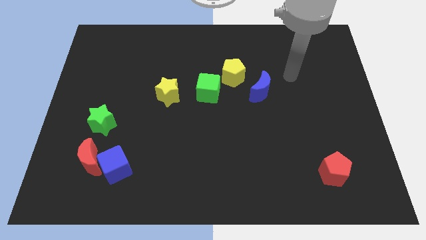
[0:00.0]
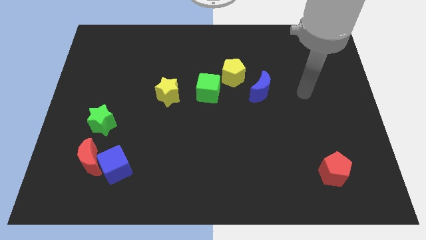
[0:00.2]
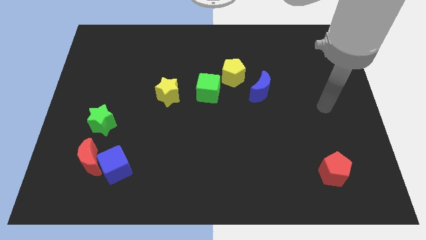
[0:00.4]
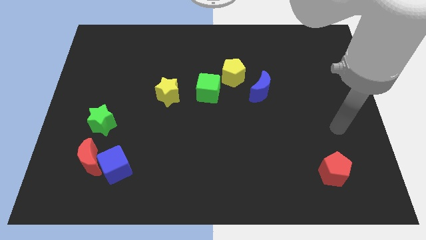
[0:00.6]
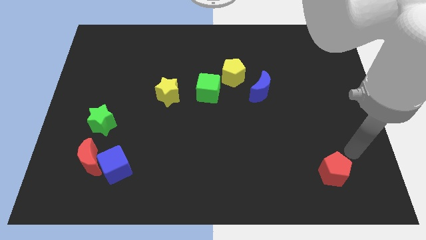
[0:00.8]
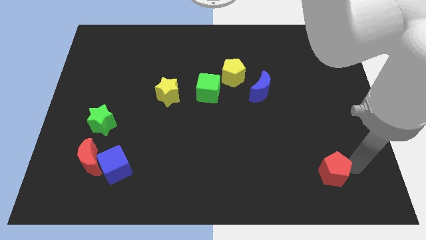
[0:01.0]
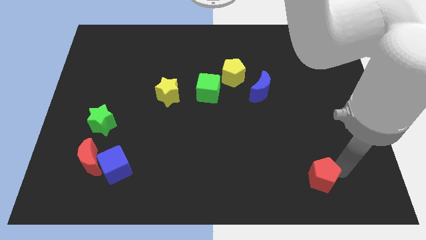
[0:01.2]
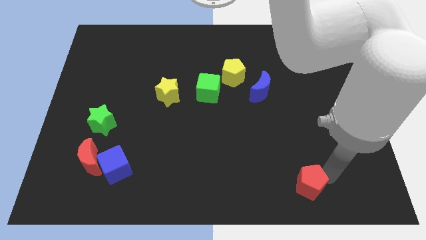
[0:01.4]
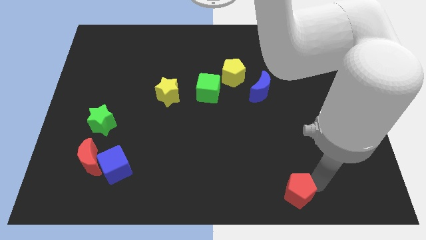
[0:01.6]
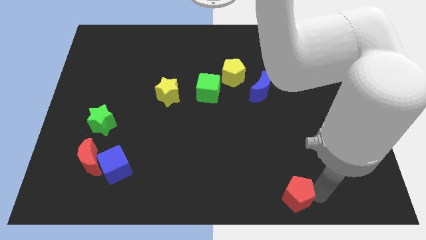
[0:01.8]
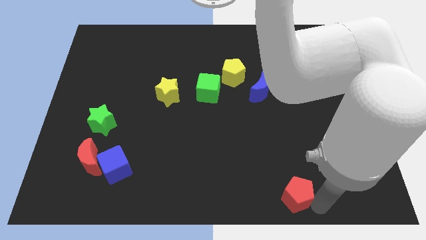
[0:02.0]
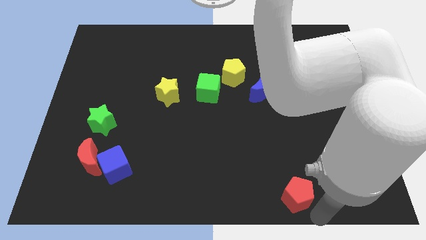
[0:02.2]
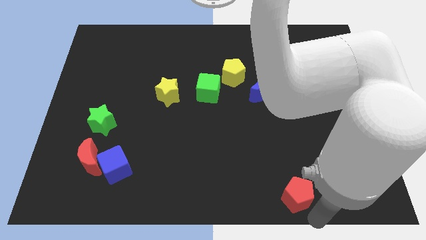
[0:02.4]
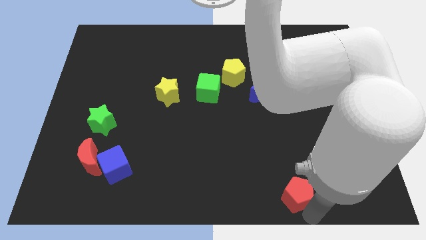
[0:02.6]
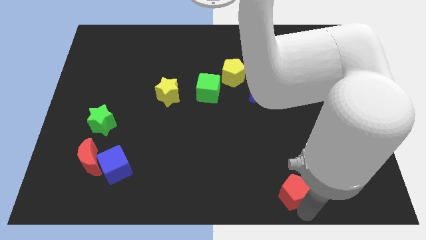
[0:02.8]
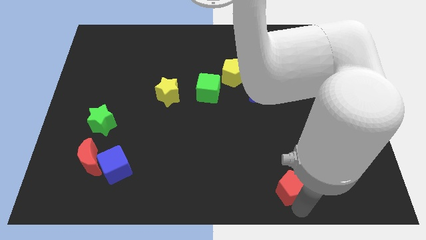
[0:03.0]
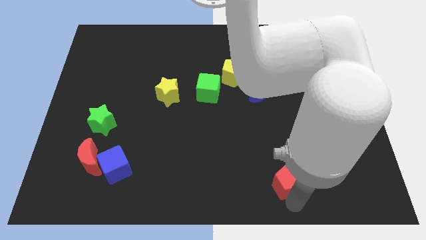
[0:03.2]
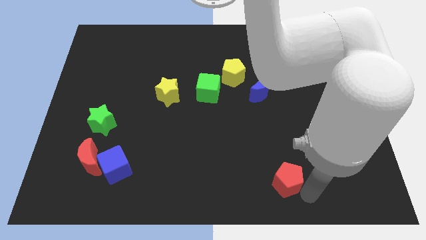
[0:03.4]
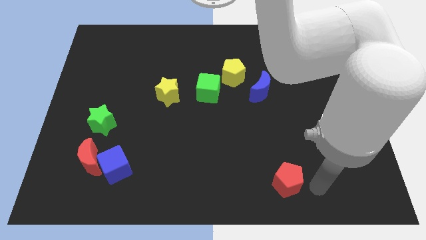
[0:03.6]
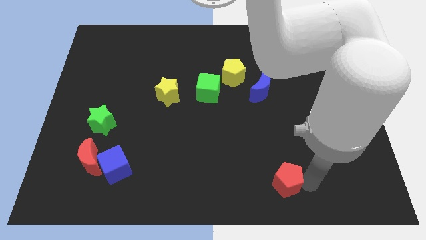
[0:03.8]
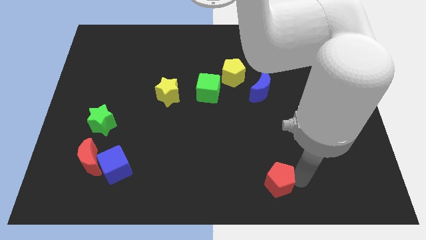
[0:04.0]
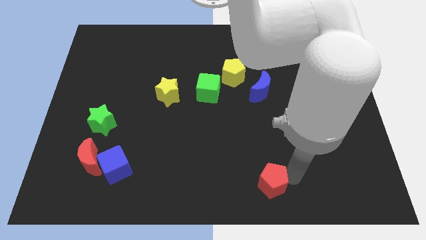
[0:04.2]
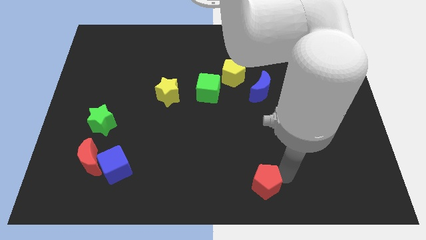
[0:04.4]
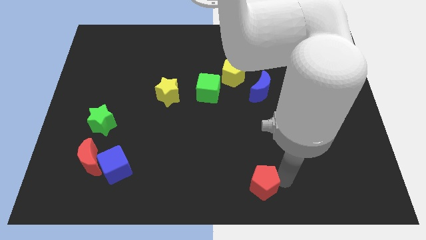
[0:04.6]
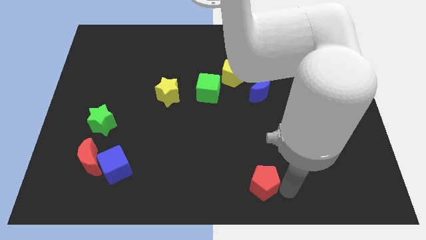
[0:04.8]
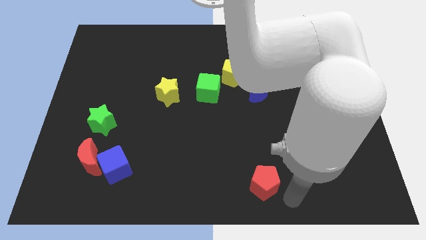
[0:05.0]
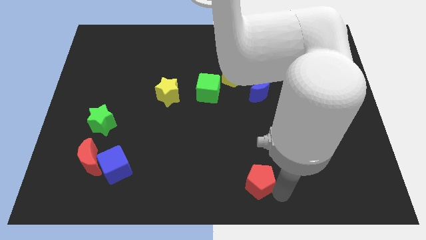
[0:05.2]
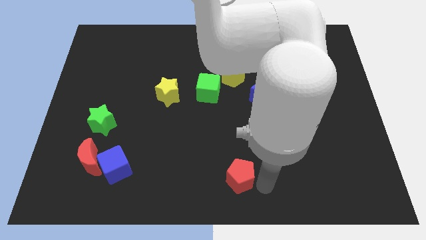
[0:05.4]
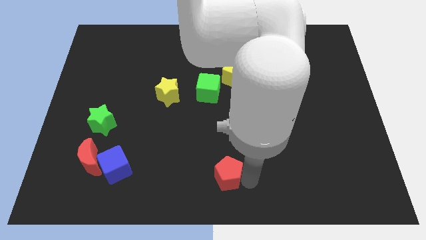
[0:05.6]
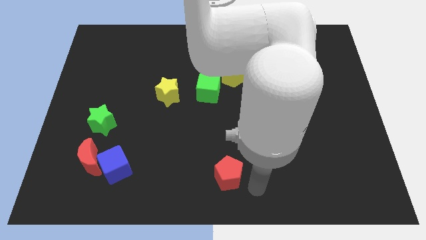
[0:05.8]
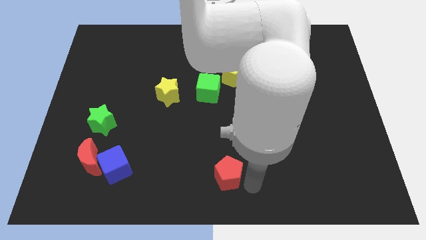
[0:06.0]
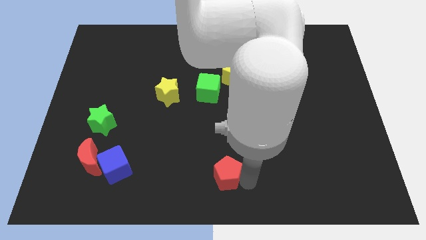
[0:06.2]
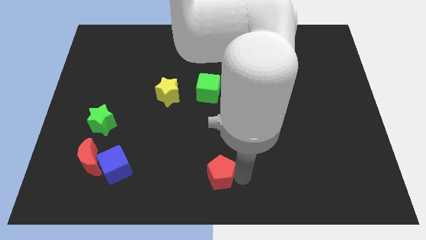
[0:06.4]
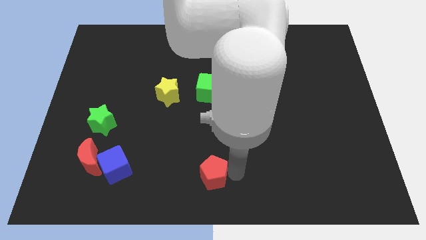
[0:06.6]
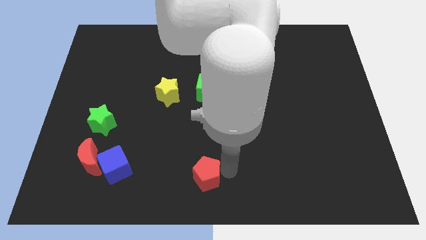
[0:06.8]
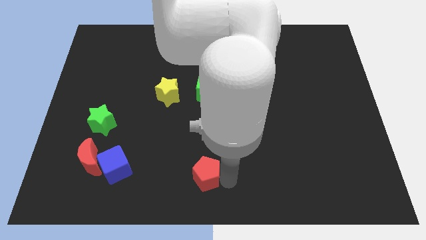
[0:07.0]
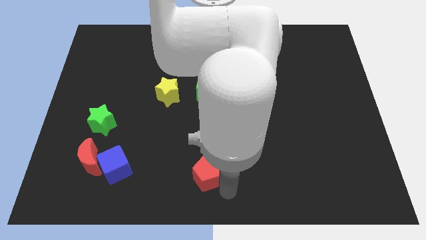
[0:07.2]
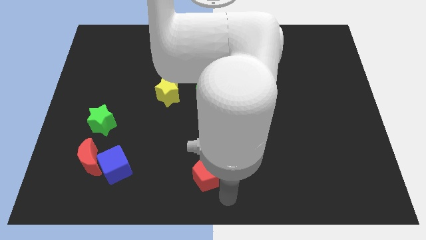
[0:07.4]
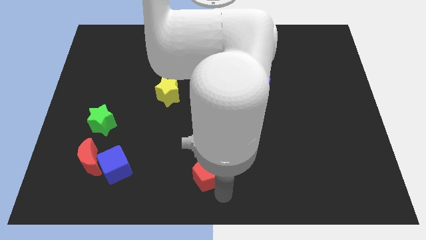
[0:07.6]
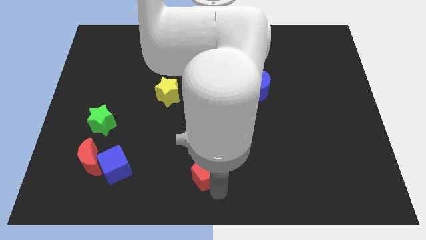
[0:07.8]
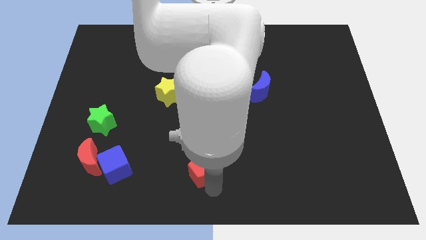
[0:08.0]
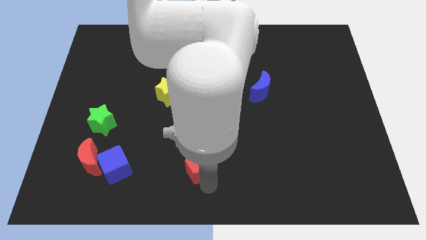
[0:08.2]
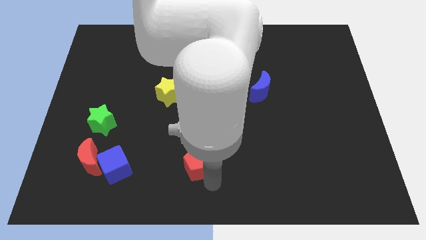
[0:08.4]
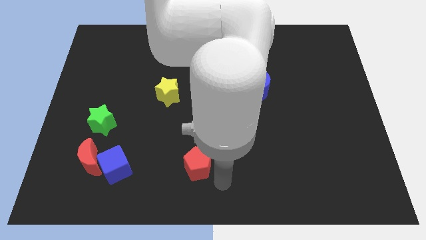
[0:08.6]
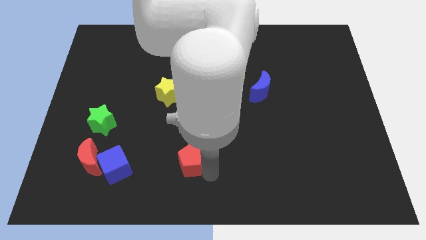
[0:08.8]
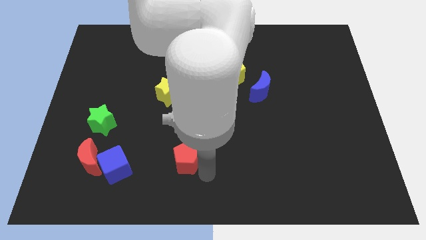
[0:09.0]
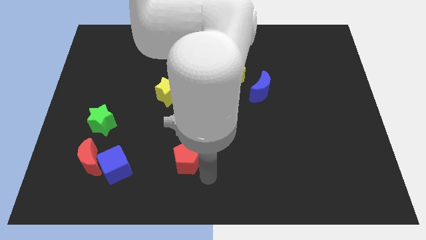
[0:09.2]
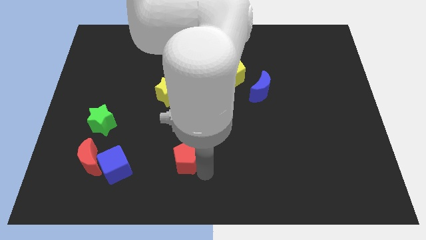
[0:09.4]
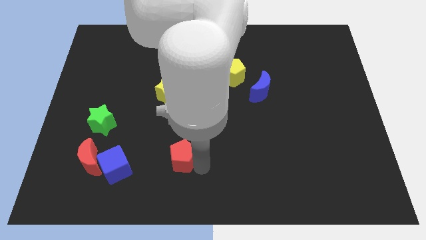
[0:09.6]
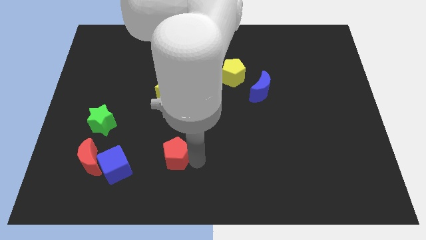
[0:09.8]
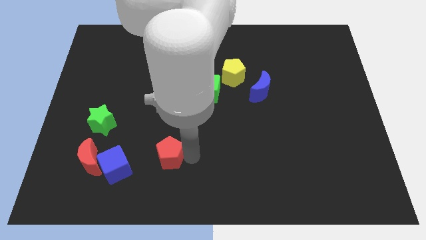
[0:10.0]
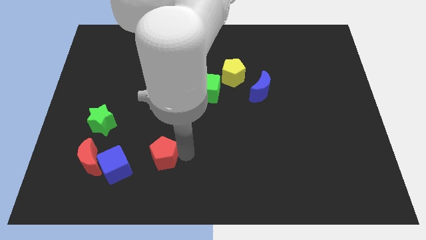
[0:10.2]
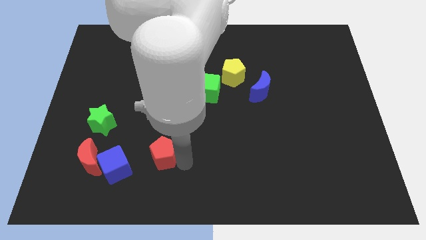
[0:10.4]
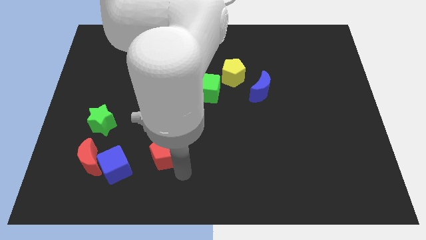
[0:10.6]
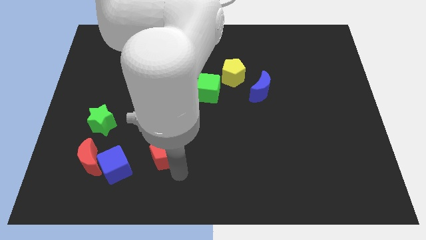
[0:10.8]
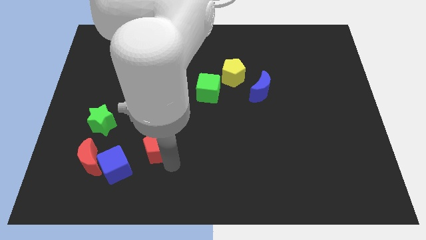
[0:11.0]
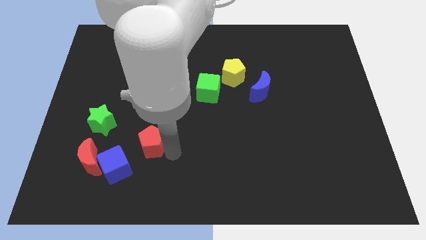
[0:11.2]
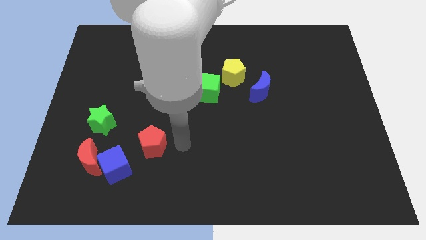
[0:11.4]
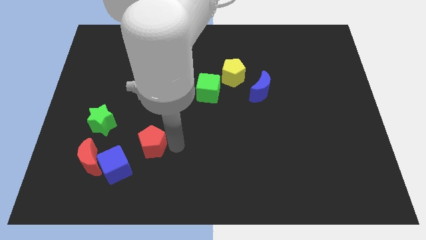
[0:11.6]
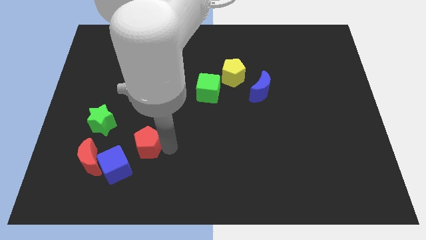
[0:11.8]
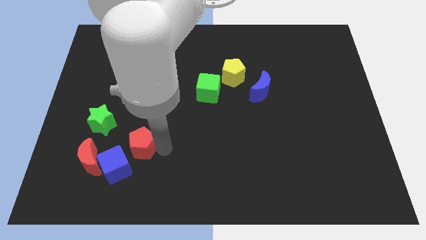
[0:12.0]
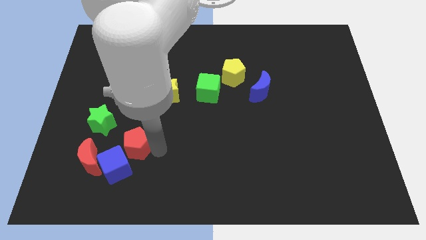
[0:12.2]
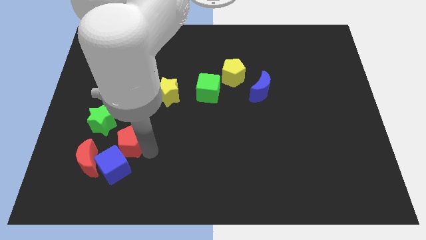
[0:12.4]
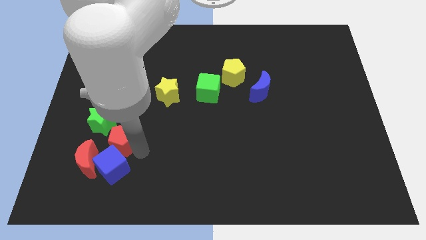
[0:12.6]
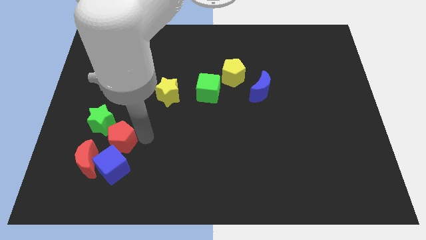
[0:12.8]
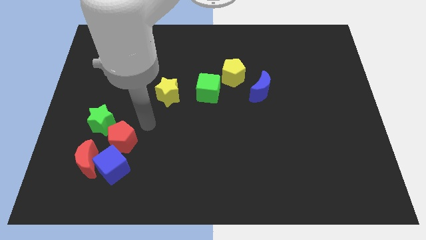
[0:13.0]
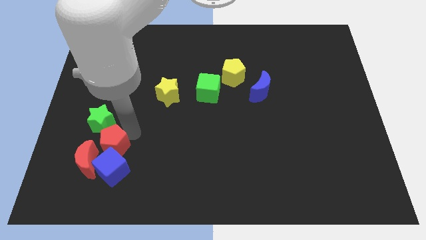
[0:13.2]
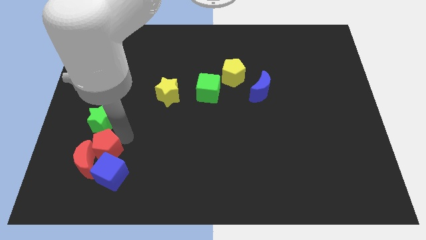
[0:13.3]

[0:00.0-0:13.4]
slide the red pentagon towards the red moon
